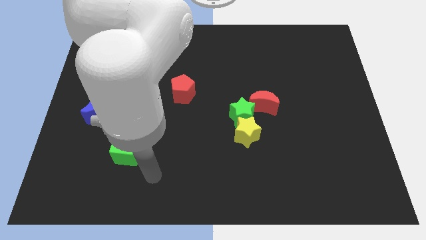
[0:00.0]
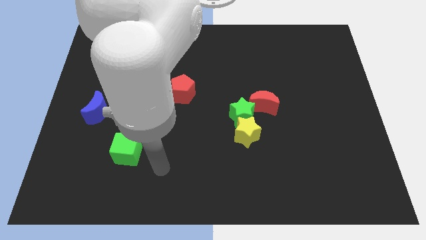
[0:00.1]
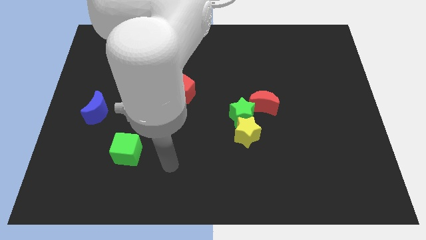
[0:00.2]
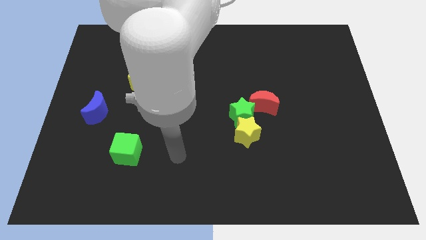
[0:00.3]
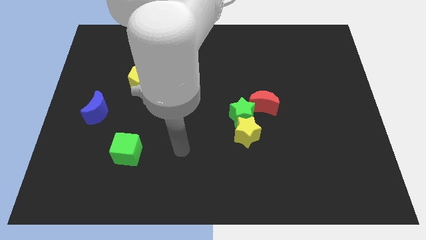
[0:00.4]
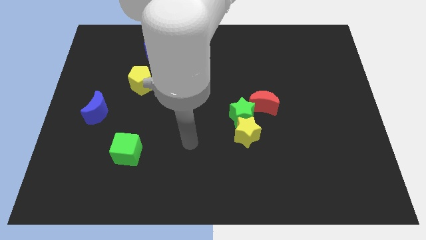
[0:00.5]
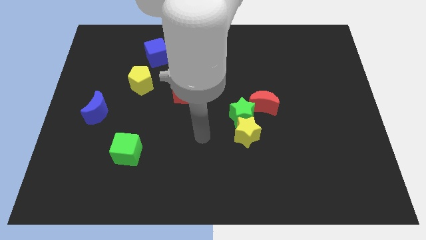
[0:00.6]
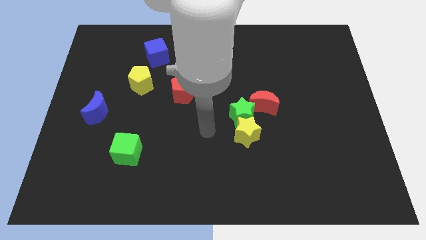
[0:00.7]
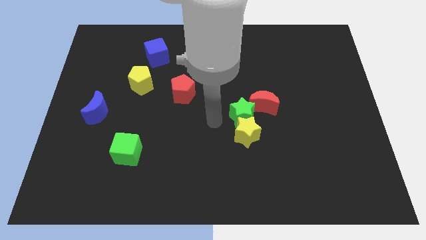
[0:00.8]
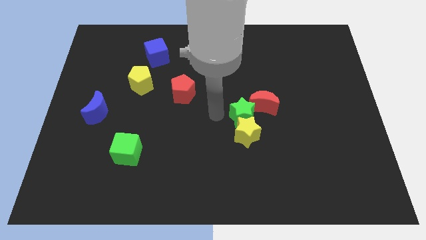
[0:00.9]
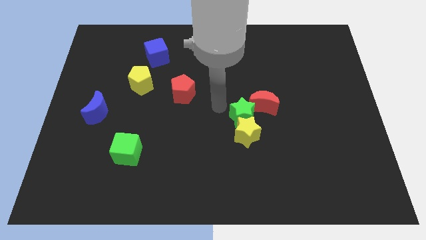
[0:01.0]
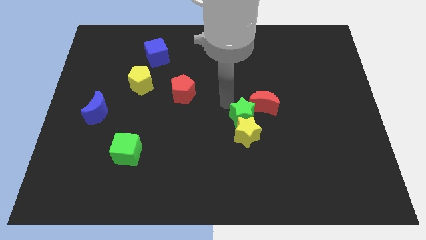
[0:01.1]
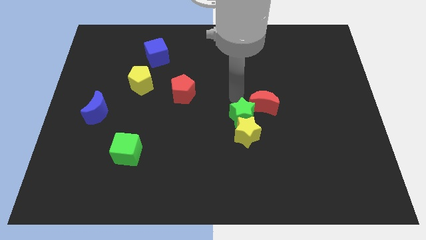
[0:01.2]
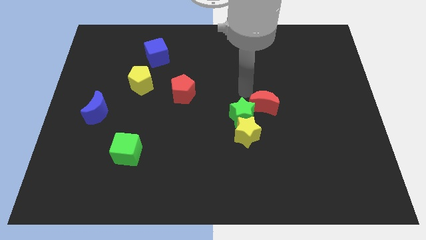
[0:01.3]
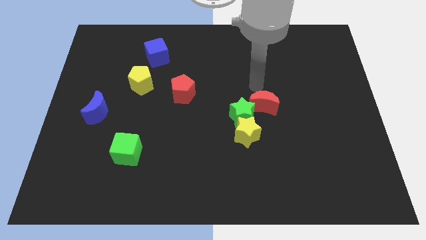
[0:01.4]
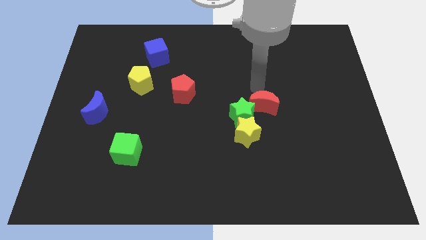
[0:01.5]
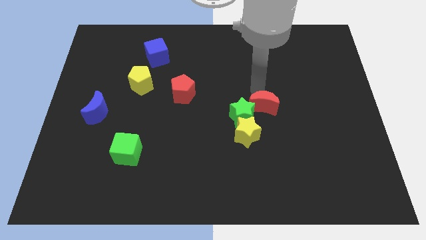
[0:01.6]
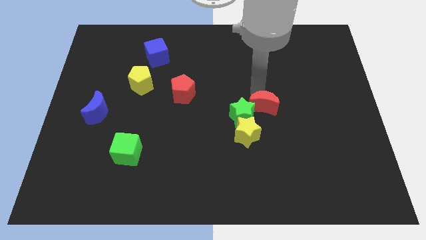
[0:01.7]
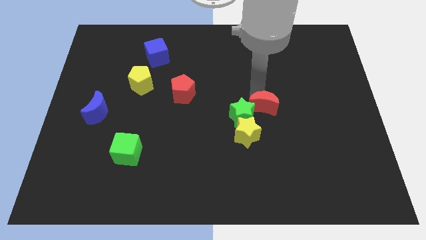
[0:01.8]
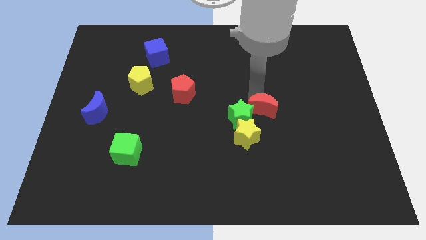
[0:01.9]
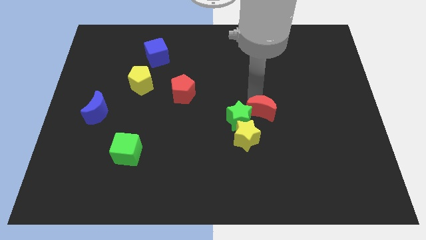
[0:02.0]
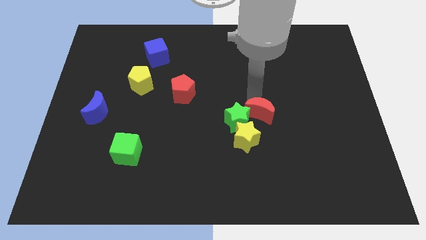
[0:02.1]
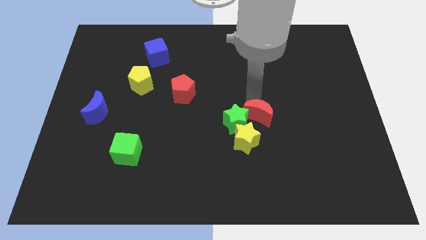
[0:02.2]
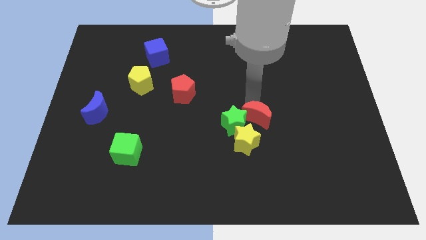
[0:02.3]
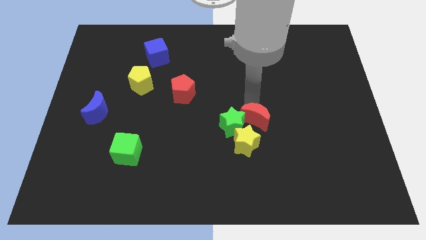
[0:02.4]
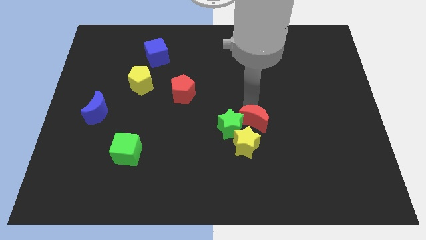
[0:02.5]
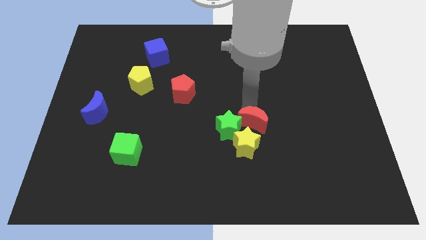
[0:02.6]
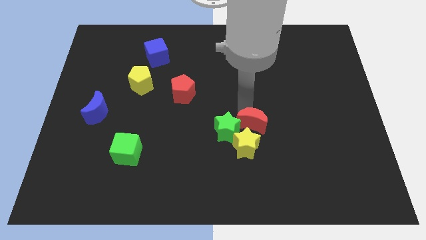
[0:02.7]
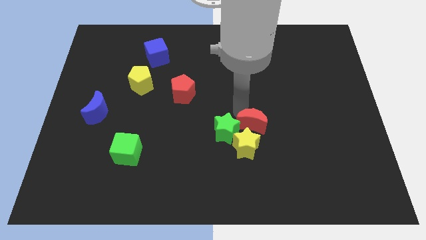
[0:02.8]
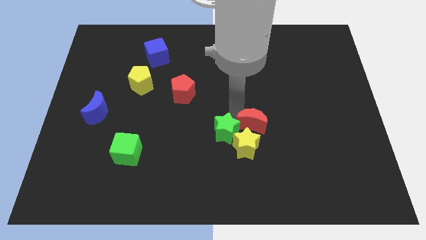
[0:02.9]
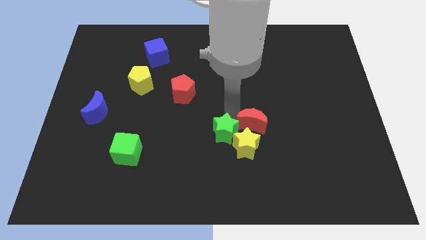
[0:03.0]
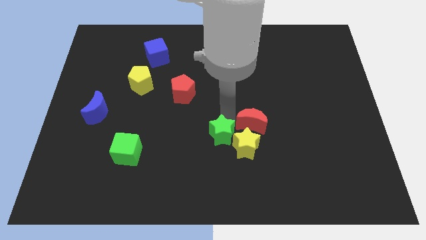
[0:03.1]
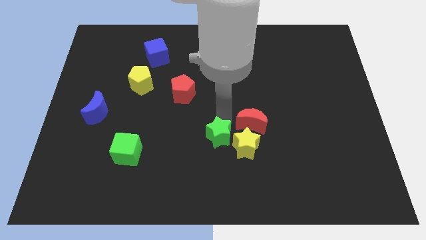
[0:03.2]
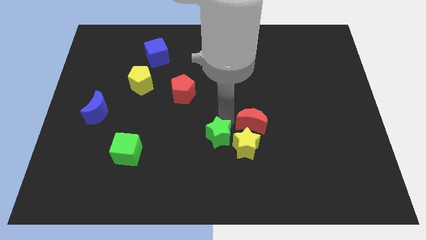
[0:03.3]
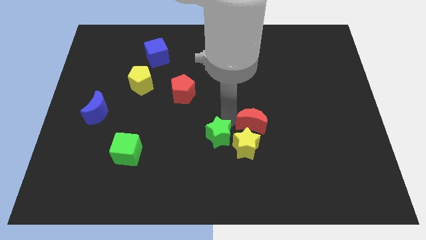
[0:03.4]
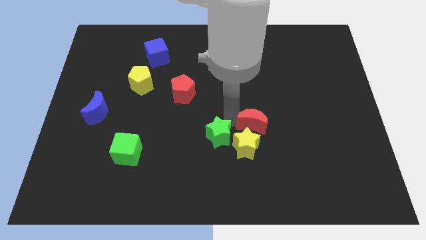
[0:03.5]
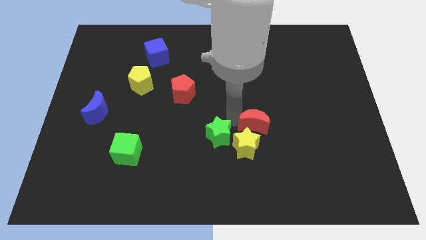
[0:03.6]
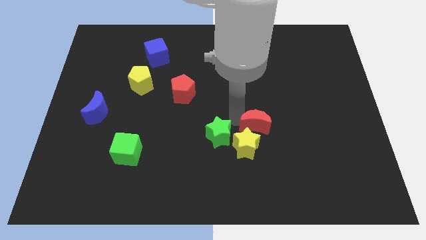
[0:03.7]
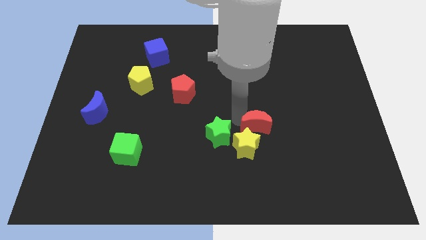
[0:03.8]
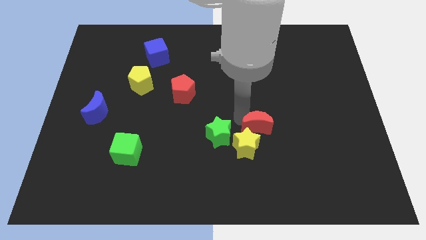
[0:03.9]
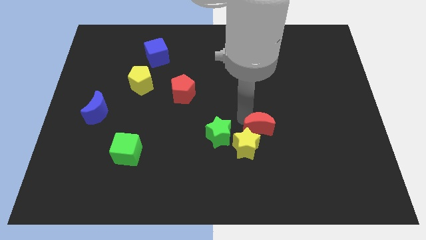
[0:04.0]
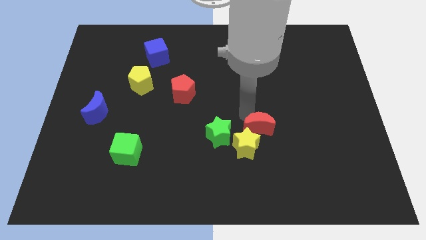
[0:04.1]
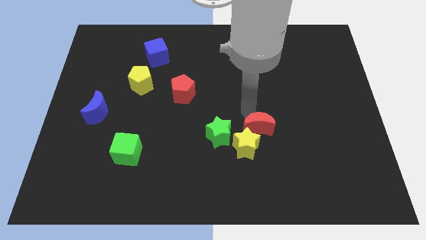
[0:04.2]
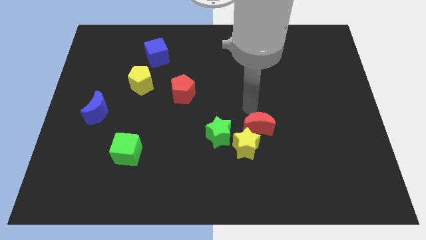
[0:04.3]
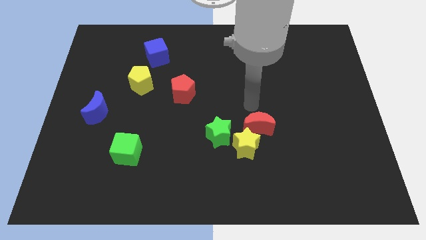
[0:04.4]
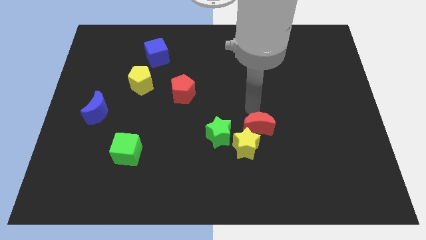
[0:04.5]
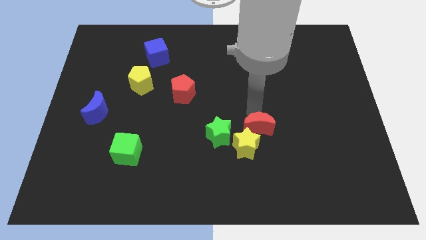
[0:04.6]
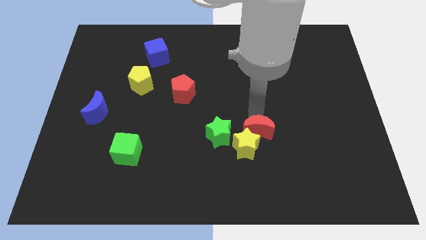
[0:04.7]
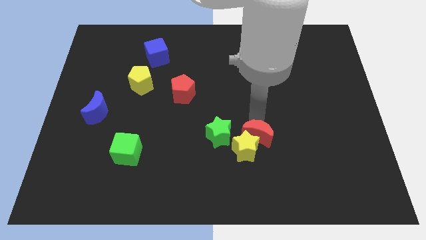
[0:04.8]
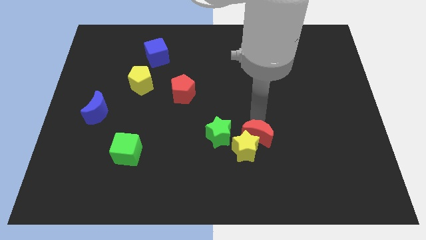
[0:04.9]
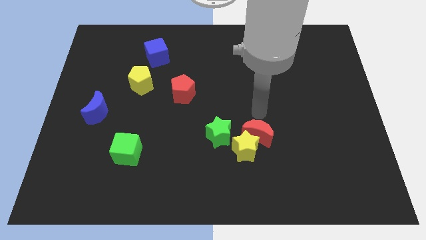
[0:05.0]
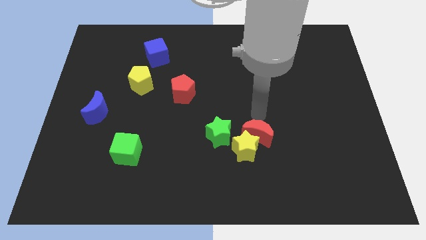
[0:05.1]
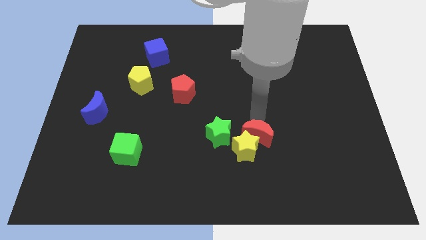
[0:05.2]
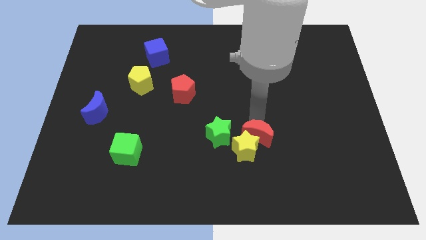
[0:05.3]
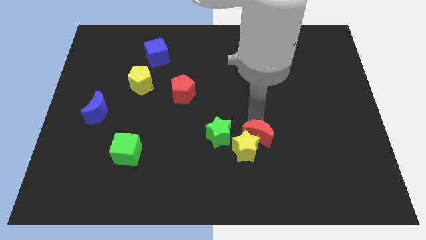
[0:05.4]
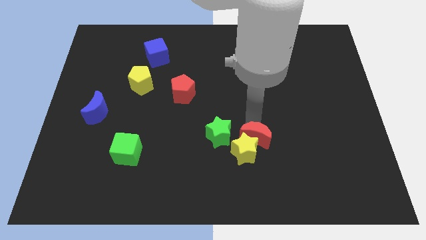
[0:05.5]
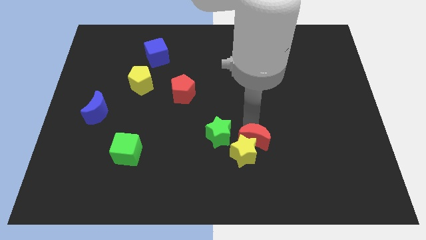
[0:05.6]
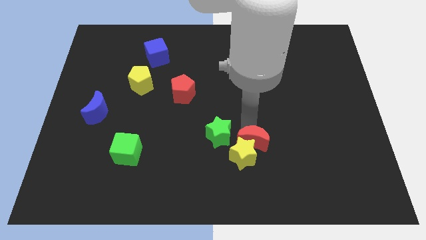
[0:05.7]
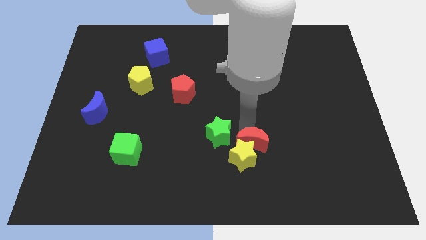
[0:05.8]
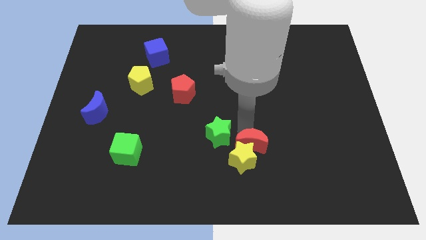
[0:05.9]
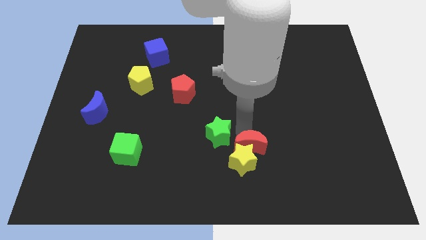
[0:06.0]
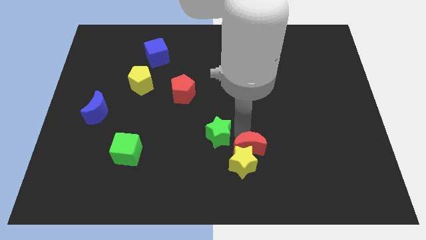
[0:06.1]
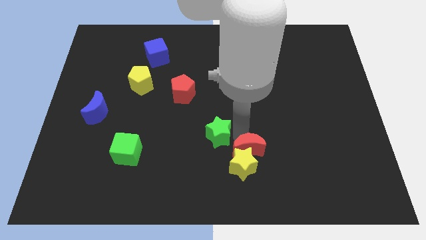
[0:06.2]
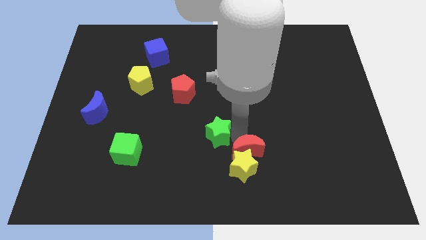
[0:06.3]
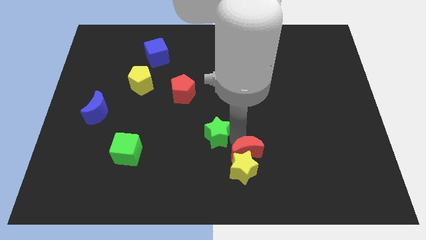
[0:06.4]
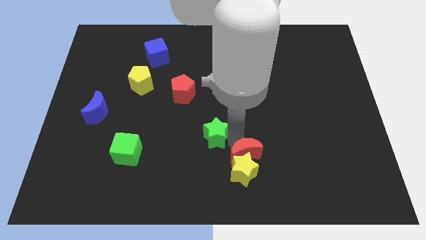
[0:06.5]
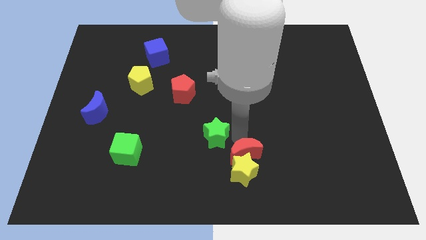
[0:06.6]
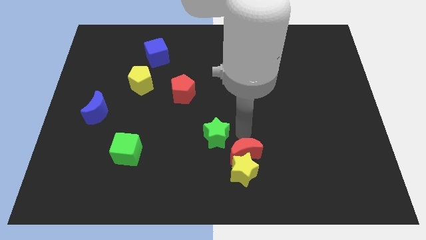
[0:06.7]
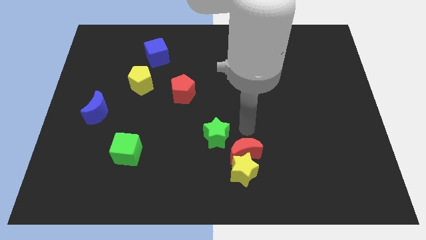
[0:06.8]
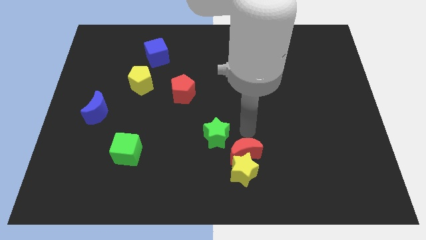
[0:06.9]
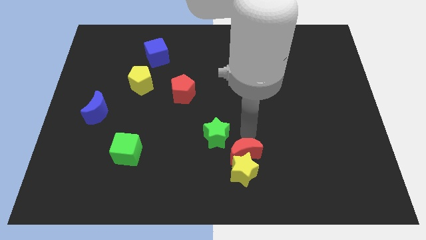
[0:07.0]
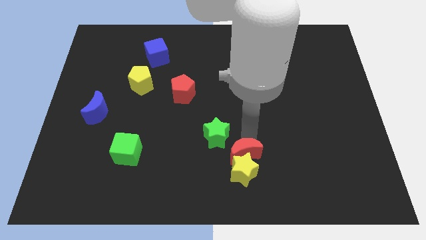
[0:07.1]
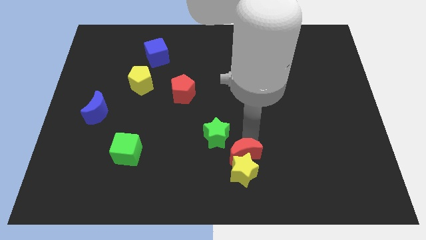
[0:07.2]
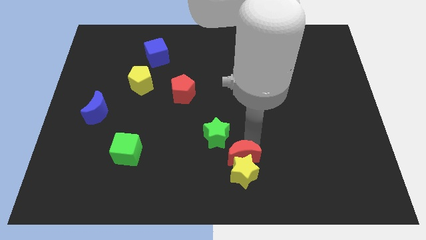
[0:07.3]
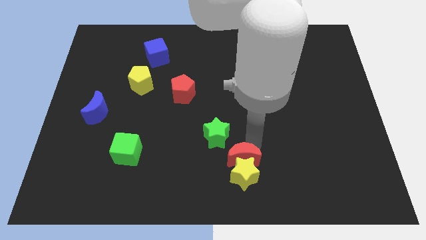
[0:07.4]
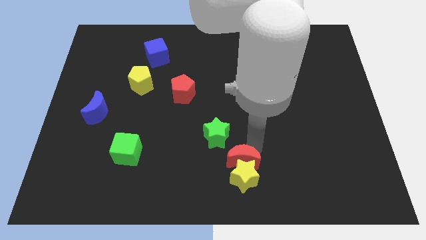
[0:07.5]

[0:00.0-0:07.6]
put the red moon to the bottom
